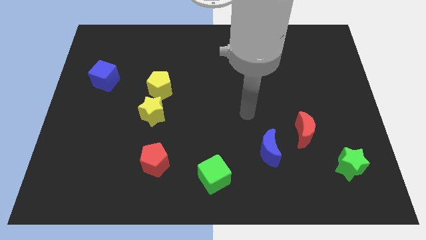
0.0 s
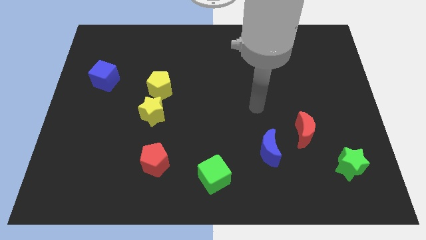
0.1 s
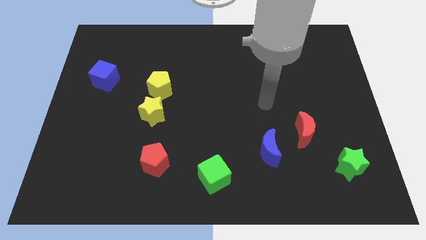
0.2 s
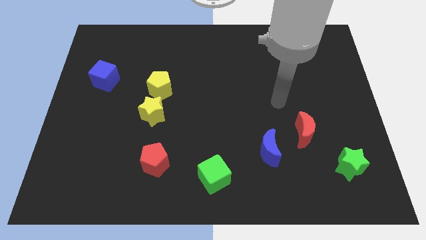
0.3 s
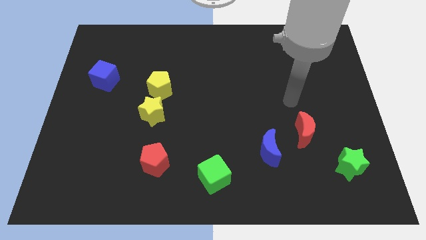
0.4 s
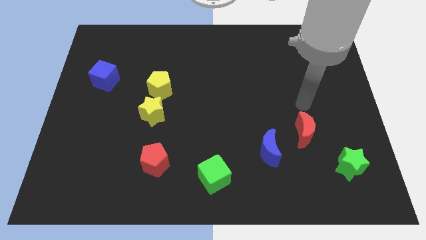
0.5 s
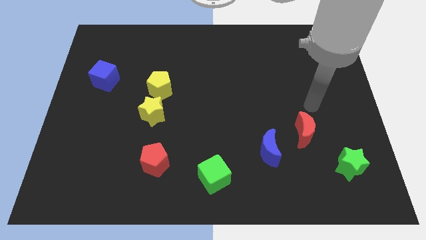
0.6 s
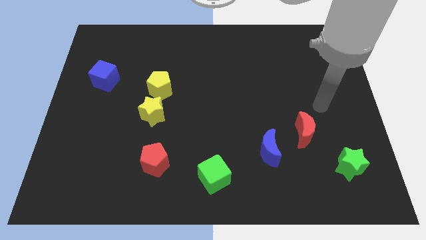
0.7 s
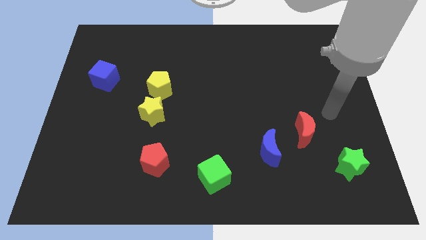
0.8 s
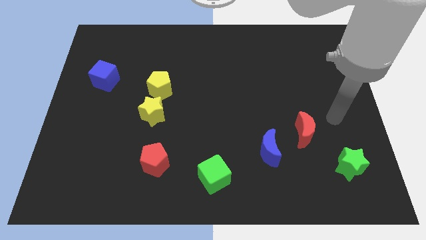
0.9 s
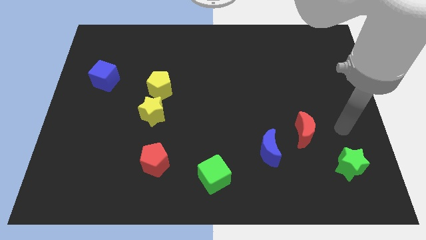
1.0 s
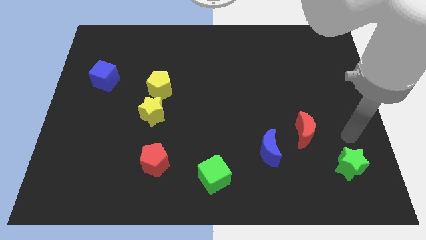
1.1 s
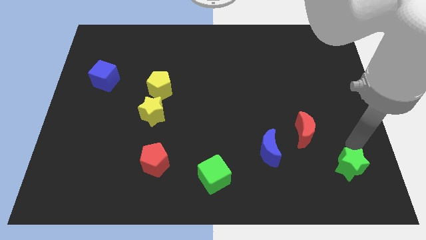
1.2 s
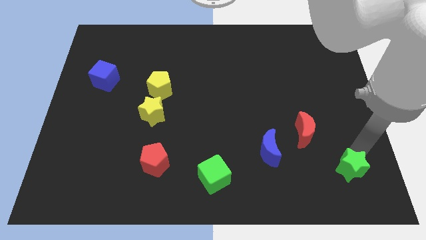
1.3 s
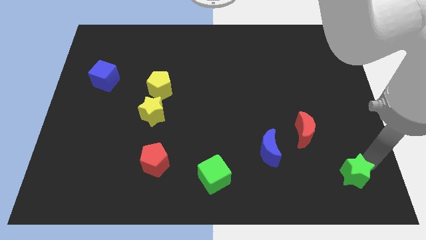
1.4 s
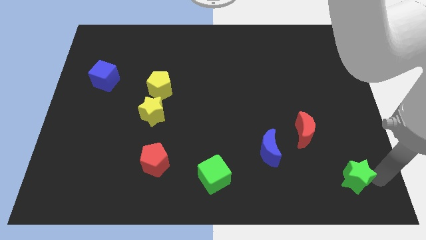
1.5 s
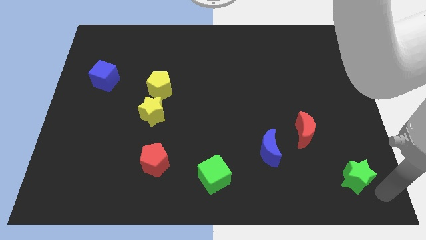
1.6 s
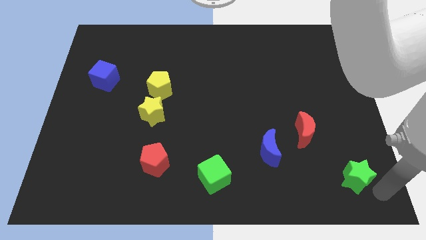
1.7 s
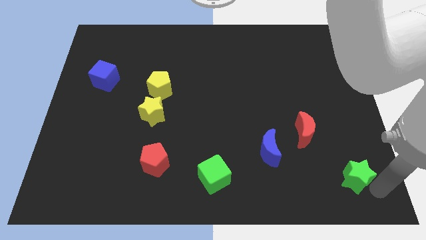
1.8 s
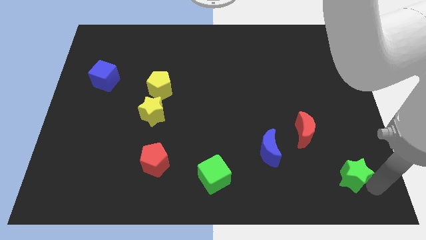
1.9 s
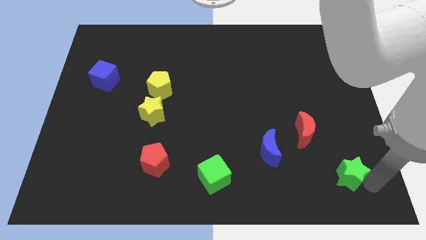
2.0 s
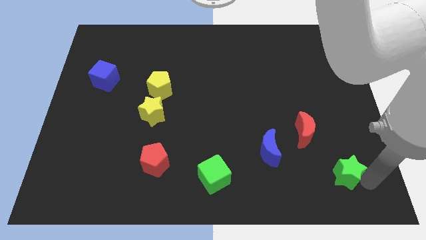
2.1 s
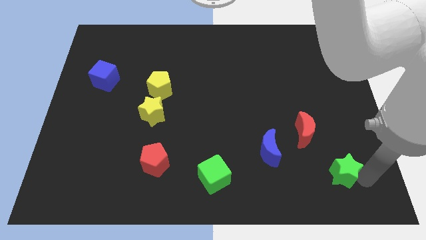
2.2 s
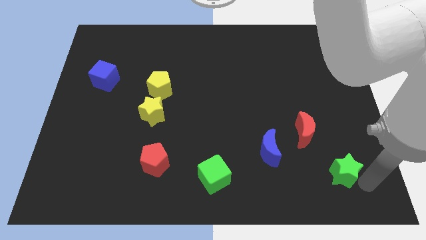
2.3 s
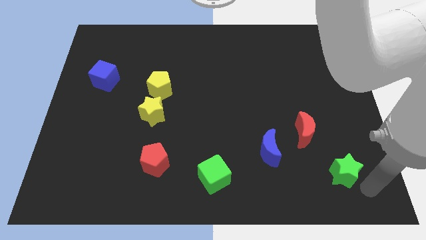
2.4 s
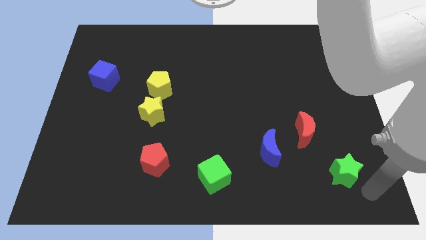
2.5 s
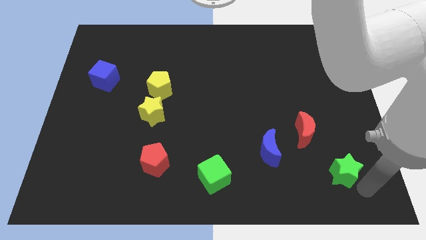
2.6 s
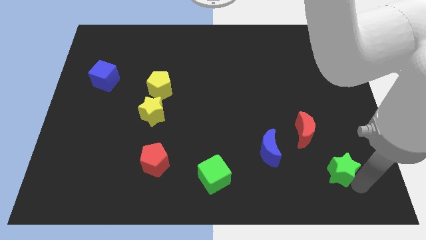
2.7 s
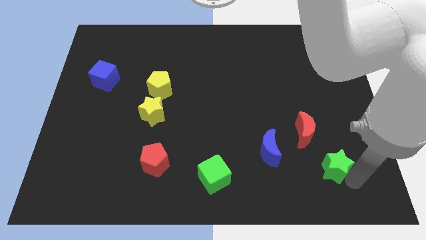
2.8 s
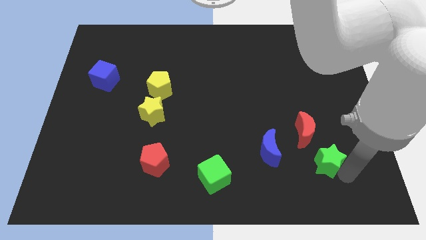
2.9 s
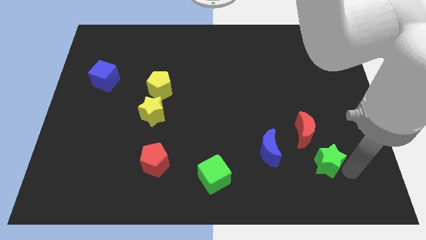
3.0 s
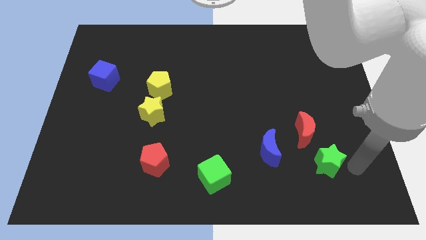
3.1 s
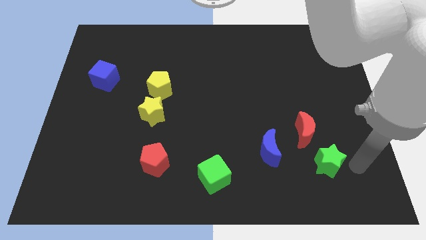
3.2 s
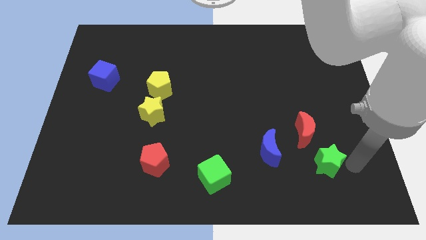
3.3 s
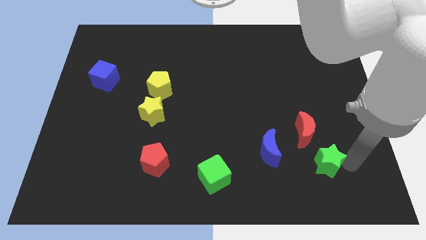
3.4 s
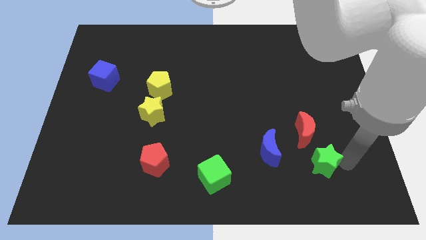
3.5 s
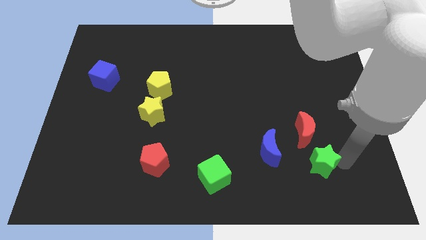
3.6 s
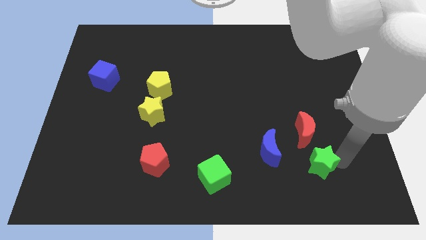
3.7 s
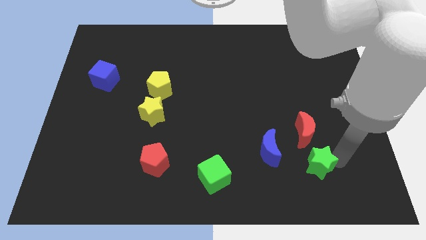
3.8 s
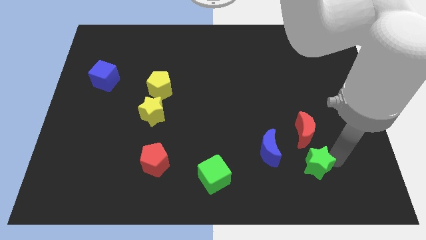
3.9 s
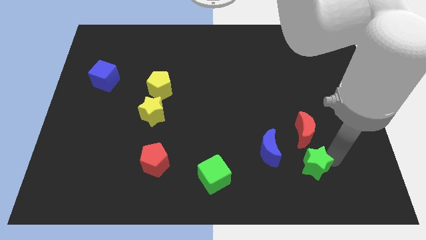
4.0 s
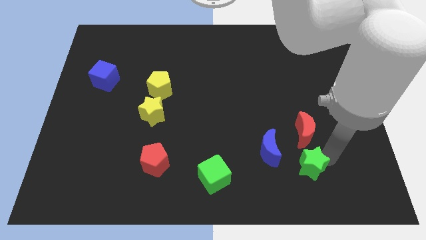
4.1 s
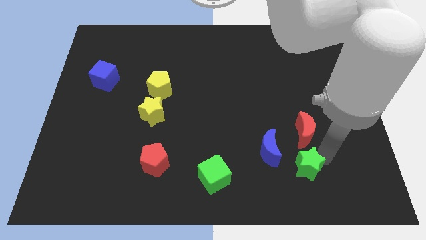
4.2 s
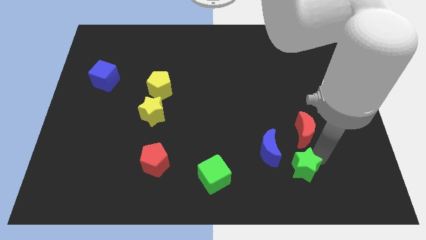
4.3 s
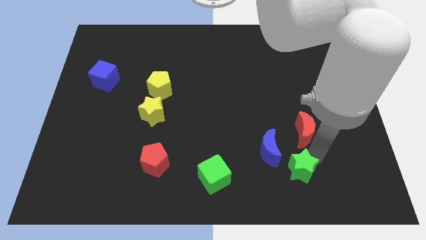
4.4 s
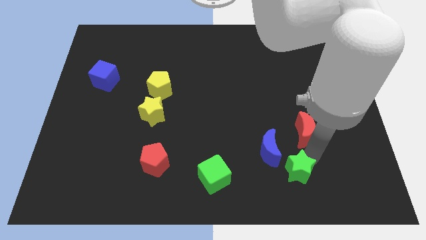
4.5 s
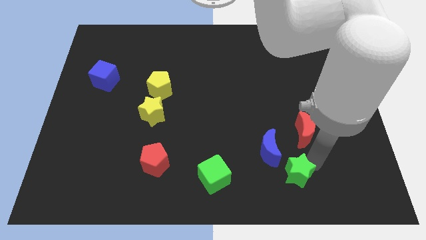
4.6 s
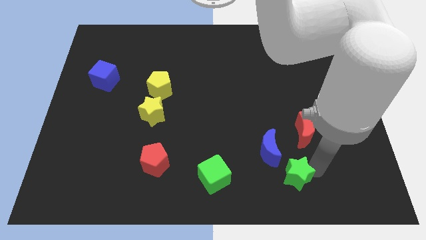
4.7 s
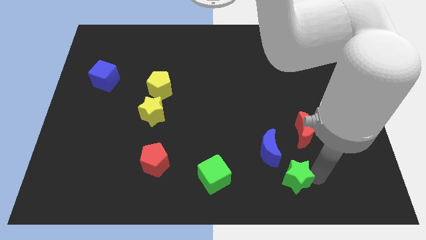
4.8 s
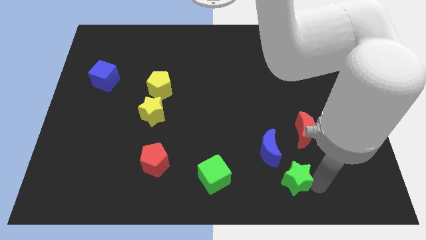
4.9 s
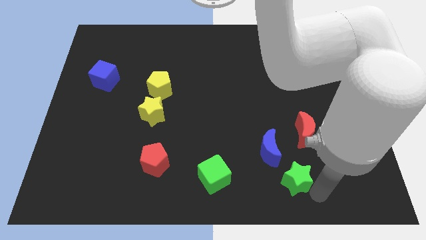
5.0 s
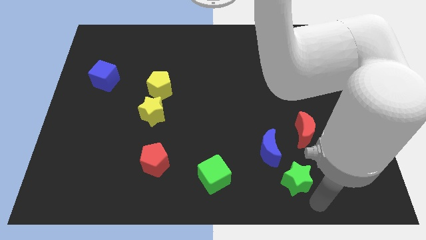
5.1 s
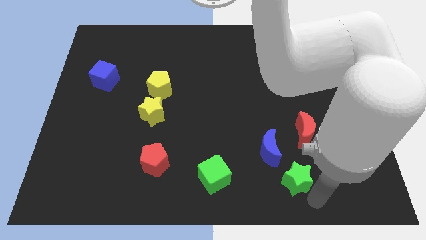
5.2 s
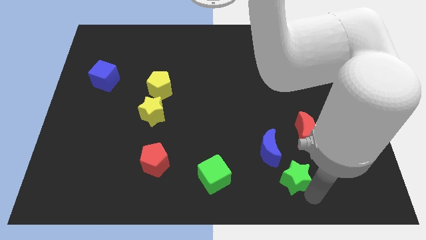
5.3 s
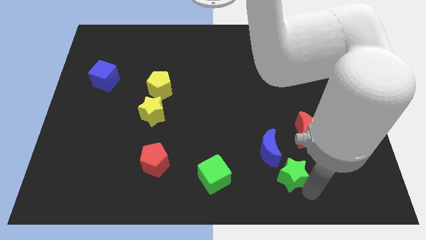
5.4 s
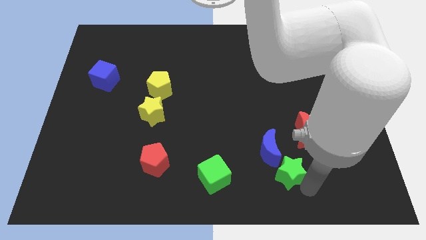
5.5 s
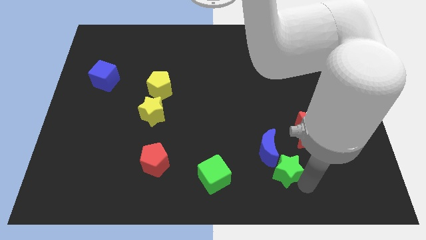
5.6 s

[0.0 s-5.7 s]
slide the green star close to the blue moon

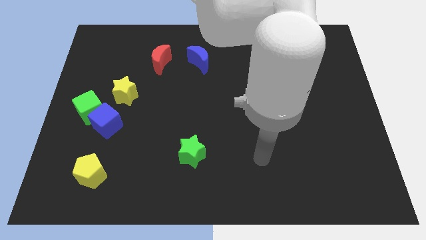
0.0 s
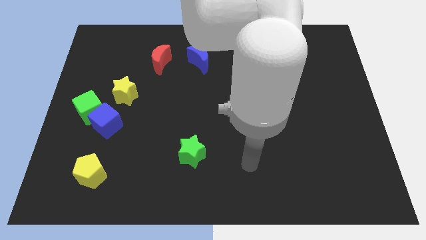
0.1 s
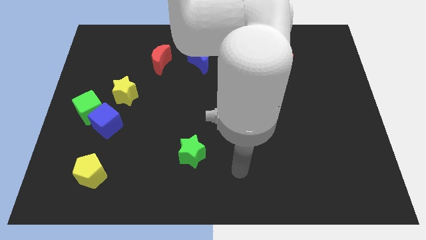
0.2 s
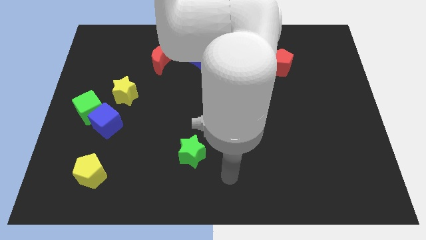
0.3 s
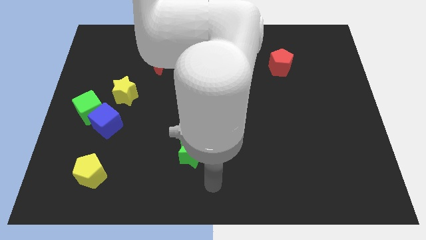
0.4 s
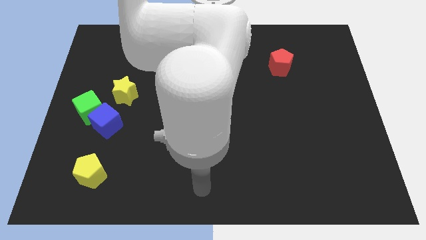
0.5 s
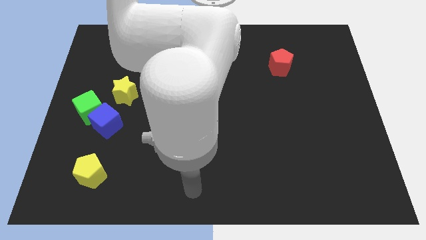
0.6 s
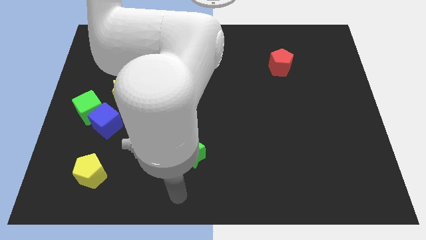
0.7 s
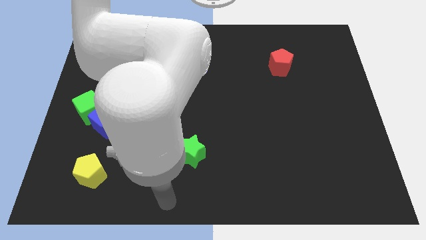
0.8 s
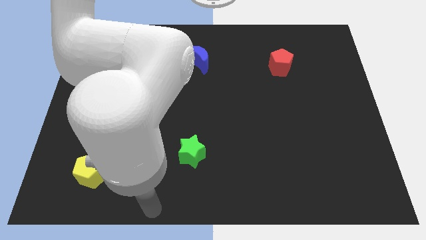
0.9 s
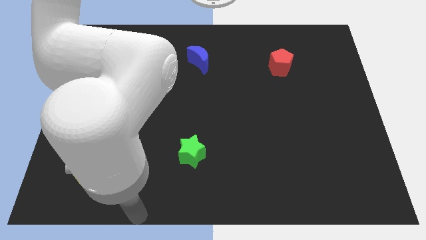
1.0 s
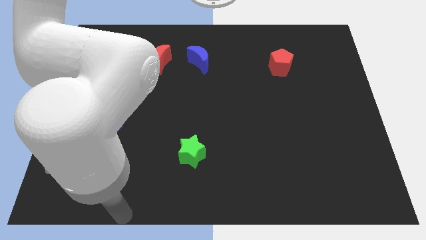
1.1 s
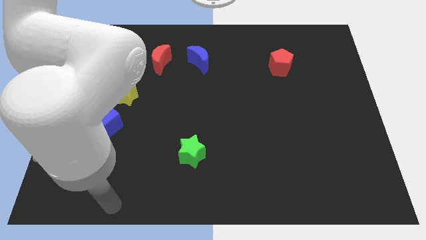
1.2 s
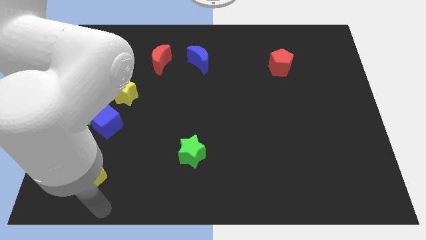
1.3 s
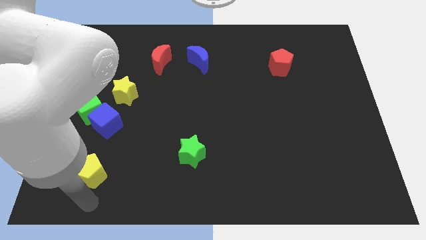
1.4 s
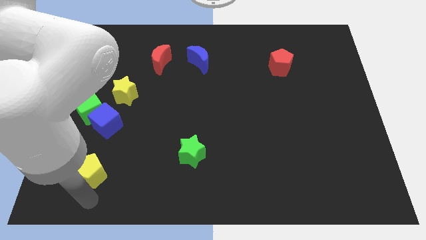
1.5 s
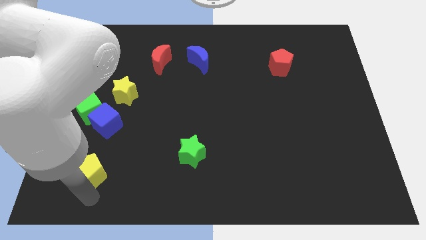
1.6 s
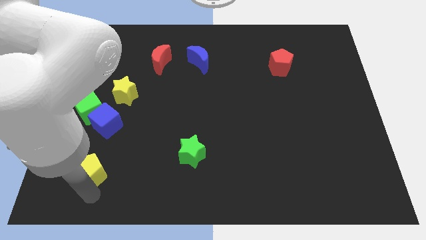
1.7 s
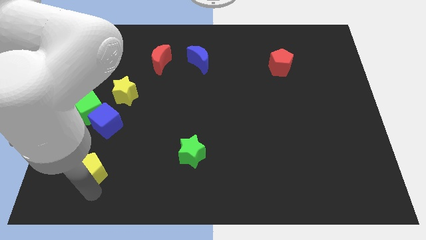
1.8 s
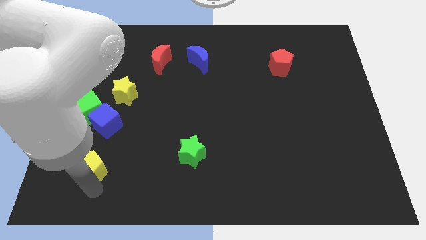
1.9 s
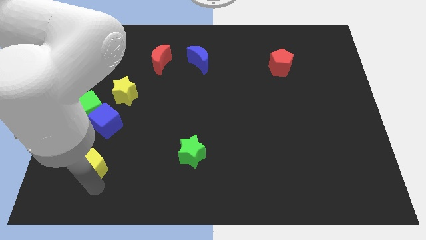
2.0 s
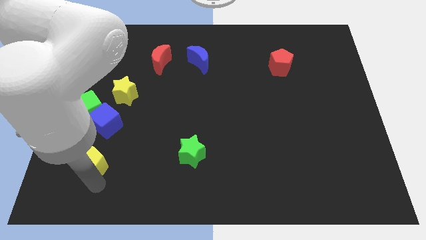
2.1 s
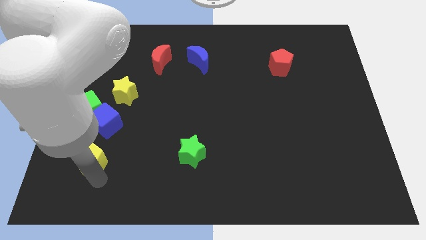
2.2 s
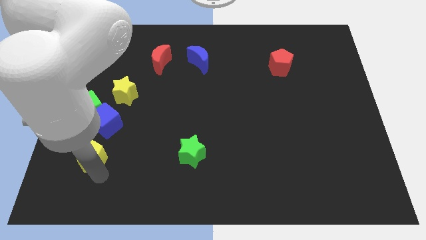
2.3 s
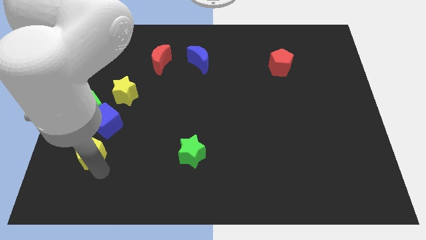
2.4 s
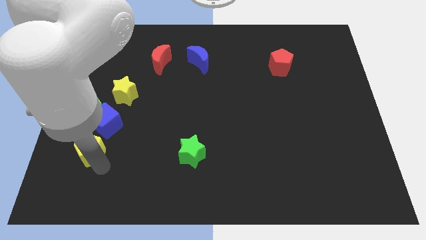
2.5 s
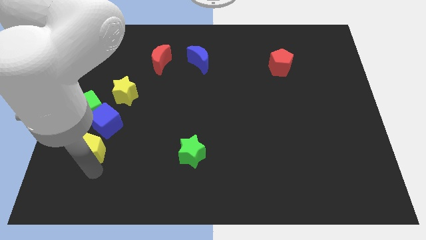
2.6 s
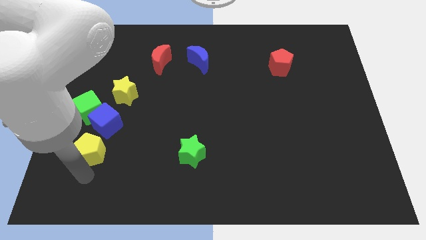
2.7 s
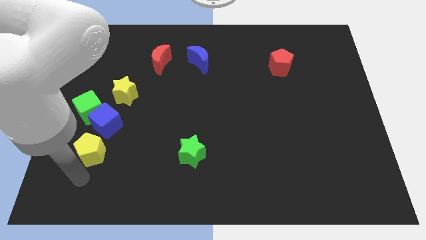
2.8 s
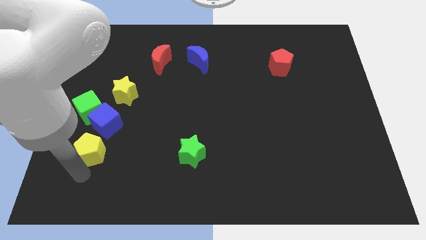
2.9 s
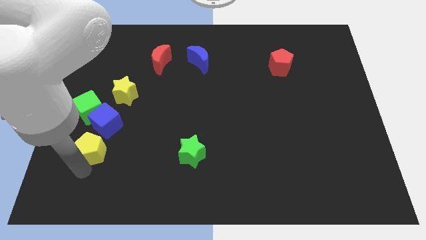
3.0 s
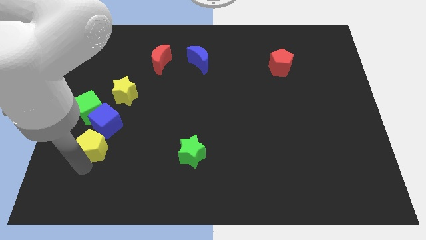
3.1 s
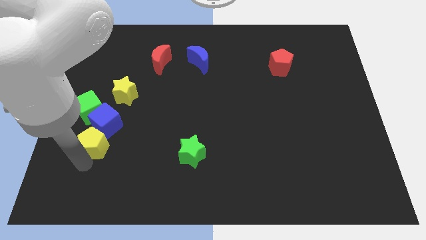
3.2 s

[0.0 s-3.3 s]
slide the yellow pentagon close to the blue cube
